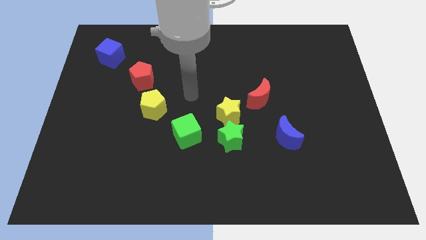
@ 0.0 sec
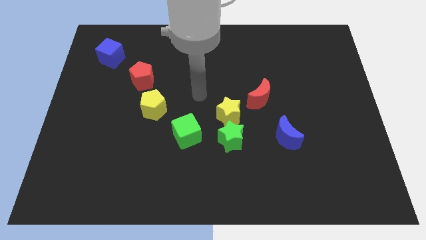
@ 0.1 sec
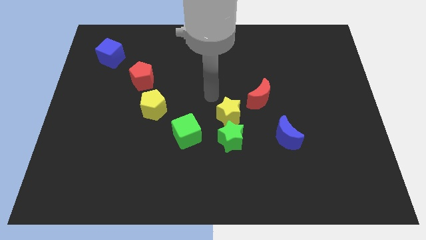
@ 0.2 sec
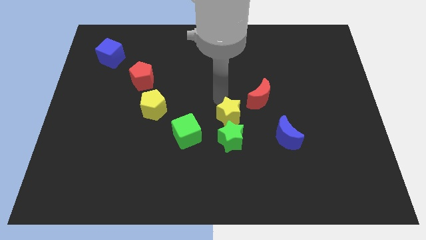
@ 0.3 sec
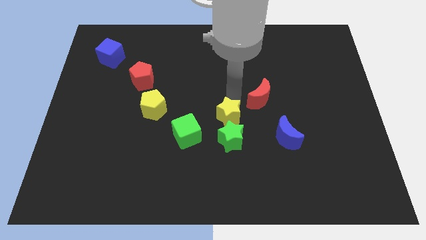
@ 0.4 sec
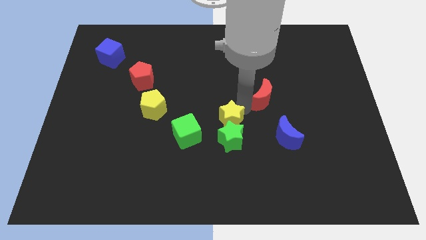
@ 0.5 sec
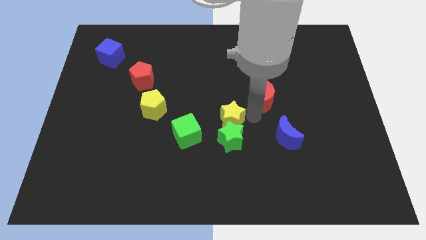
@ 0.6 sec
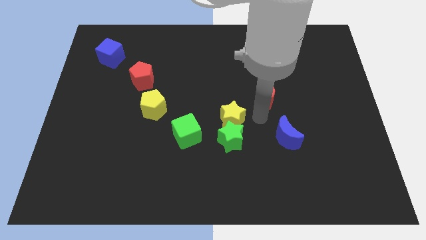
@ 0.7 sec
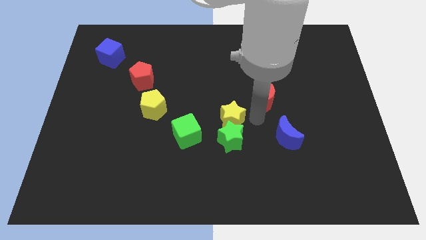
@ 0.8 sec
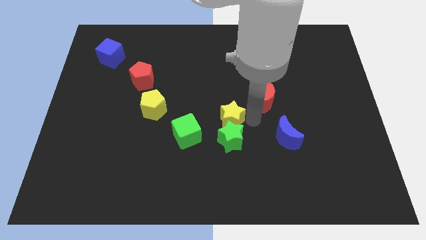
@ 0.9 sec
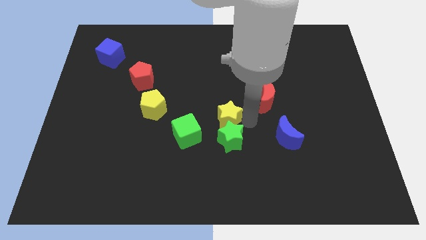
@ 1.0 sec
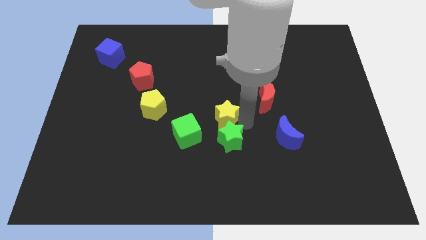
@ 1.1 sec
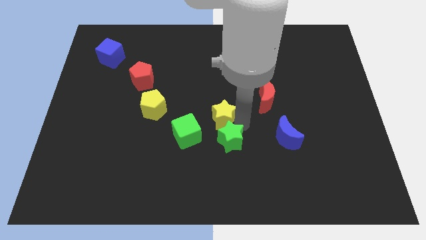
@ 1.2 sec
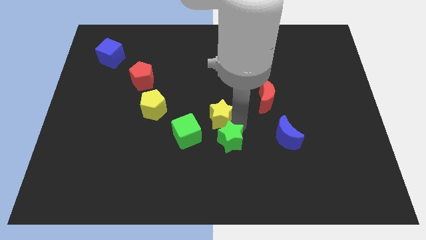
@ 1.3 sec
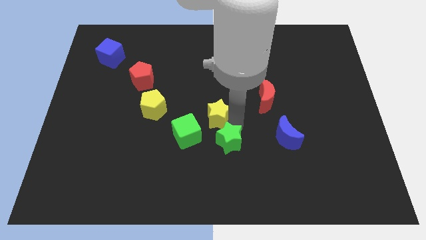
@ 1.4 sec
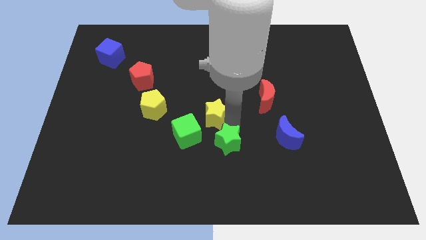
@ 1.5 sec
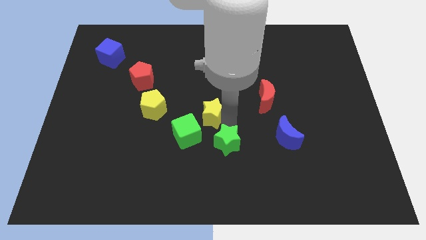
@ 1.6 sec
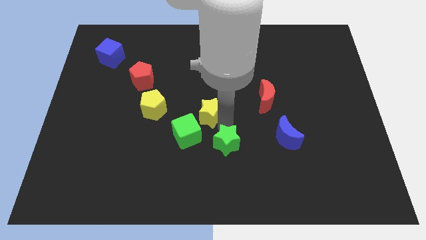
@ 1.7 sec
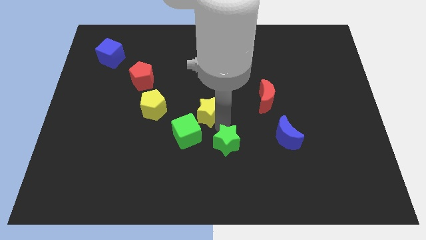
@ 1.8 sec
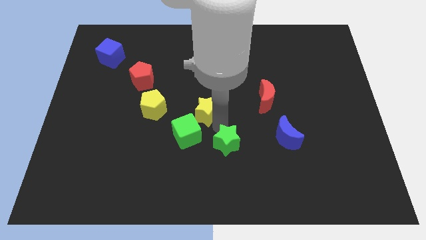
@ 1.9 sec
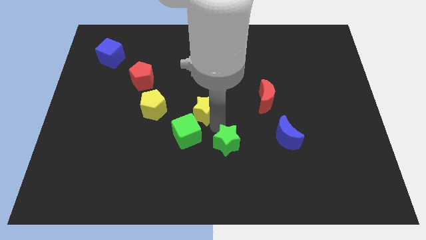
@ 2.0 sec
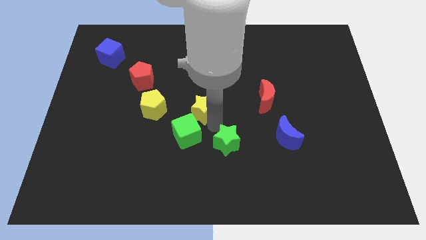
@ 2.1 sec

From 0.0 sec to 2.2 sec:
pull the yellow star apart from the green star and red moon

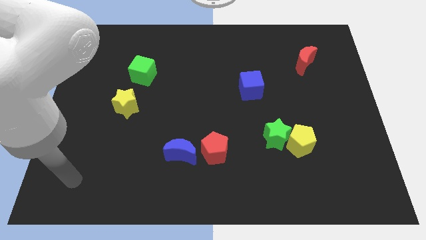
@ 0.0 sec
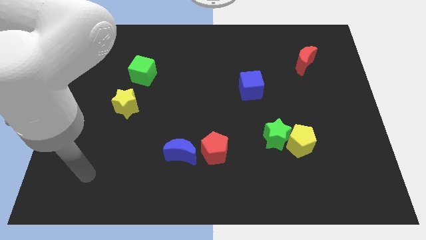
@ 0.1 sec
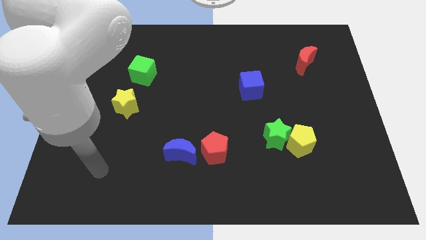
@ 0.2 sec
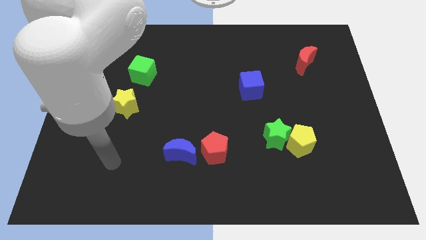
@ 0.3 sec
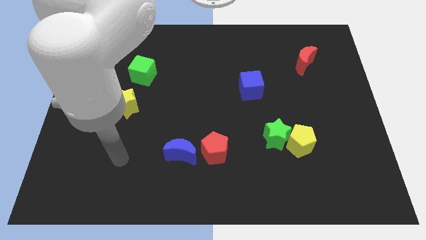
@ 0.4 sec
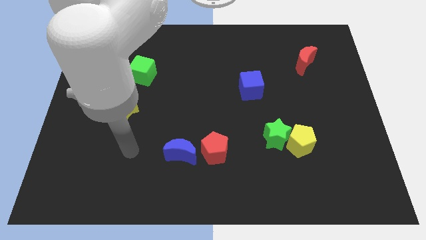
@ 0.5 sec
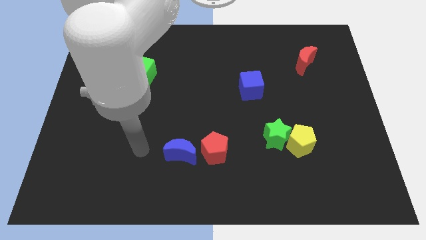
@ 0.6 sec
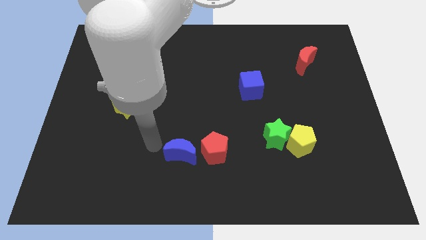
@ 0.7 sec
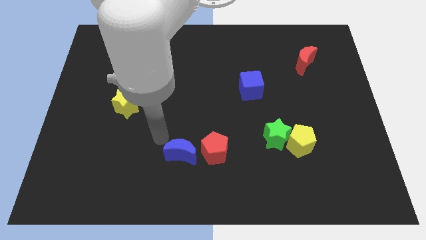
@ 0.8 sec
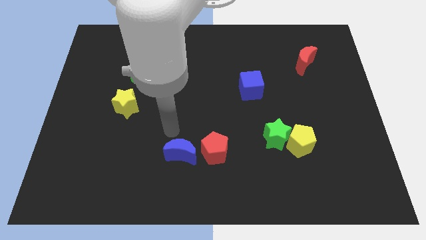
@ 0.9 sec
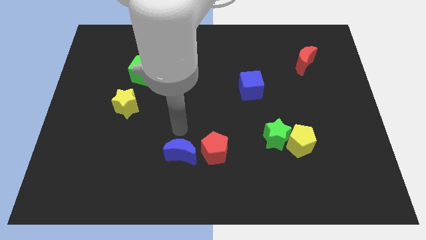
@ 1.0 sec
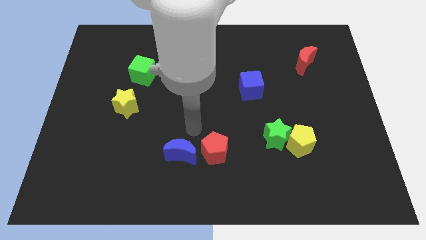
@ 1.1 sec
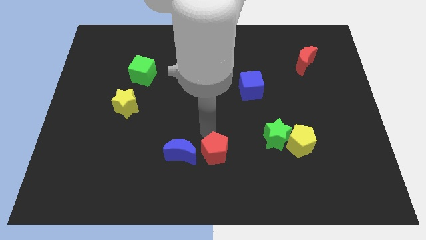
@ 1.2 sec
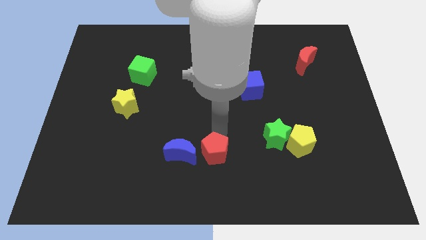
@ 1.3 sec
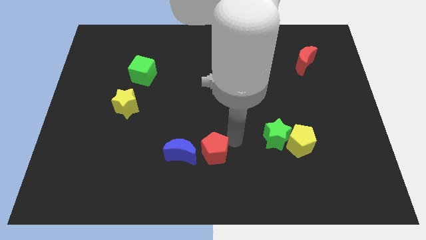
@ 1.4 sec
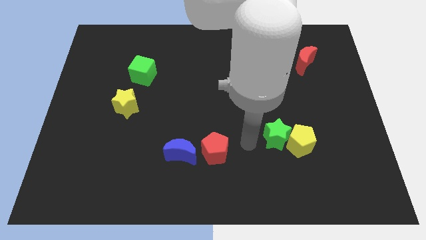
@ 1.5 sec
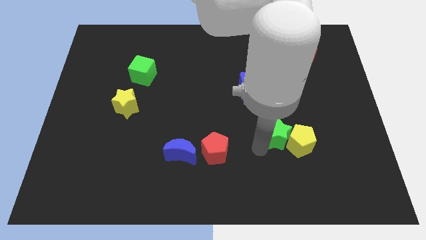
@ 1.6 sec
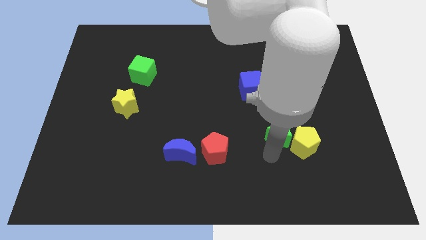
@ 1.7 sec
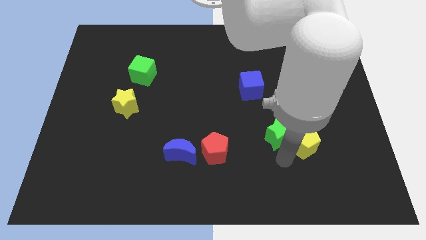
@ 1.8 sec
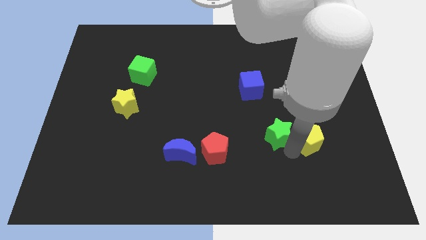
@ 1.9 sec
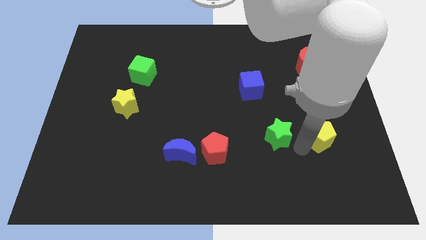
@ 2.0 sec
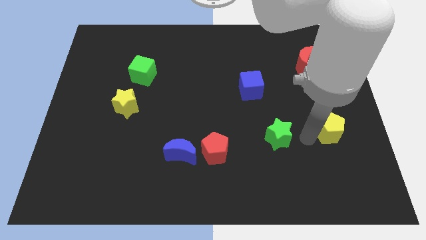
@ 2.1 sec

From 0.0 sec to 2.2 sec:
move the green star away from the yellow pentagon

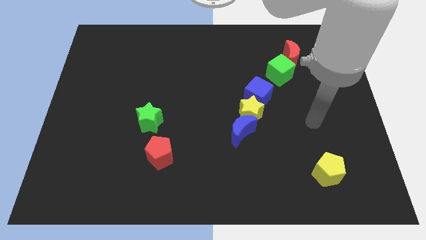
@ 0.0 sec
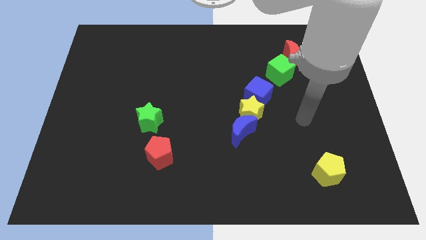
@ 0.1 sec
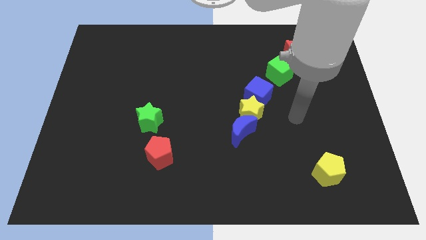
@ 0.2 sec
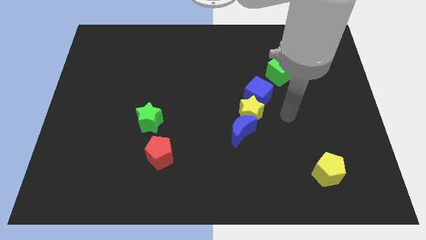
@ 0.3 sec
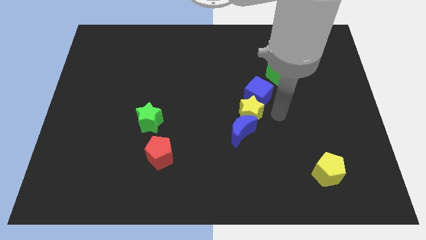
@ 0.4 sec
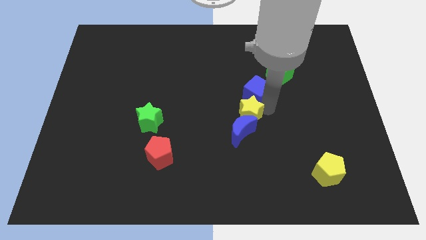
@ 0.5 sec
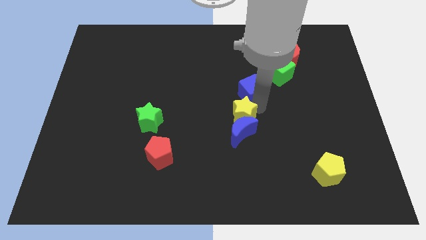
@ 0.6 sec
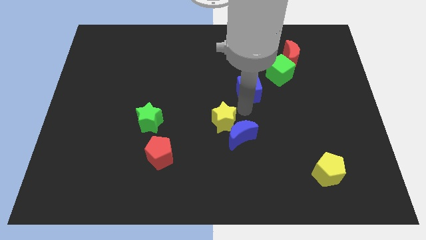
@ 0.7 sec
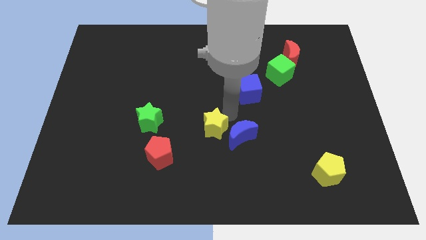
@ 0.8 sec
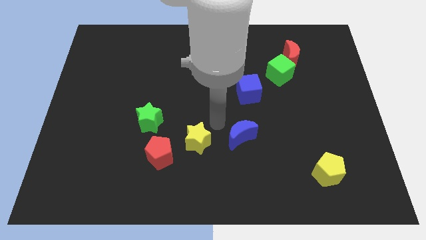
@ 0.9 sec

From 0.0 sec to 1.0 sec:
separate the blue moon from the yellow star

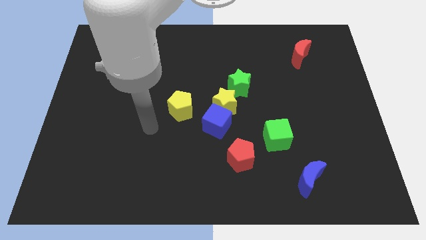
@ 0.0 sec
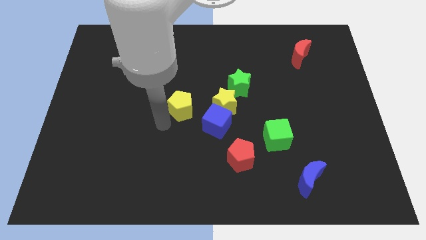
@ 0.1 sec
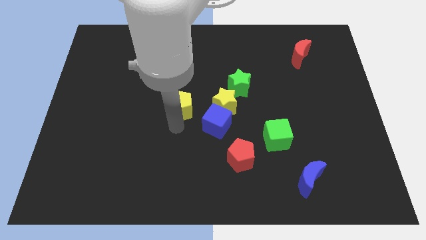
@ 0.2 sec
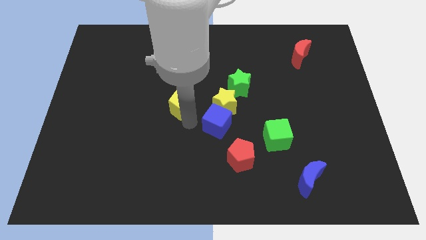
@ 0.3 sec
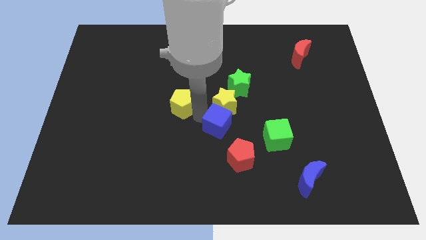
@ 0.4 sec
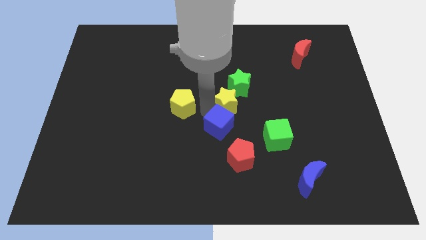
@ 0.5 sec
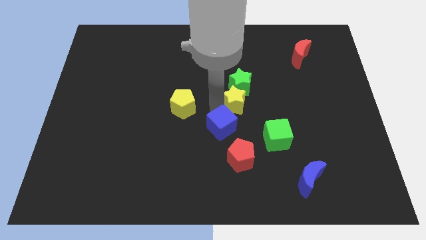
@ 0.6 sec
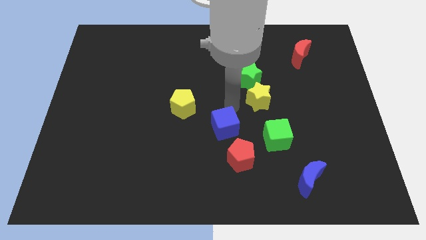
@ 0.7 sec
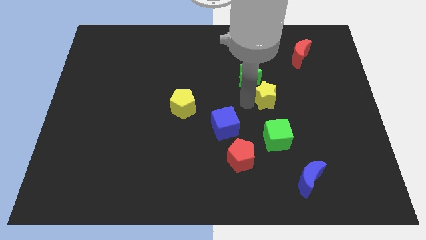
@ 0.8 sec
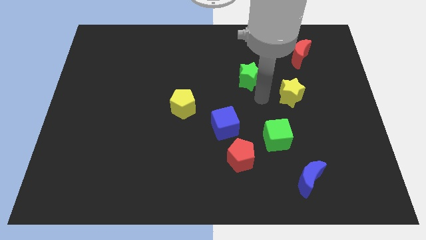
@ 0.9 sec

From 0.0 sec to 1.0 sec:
move the green star away from the yellow star

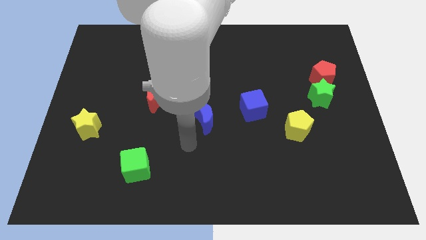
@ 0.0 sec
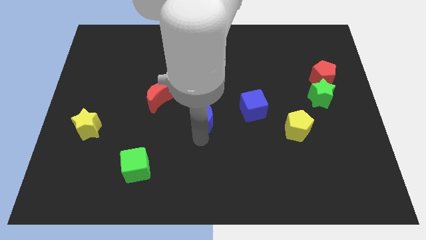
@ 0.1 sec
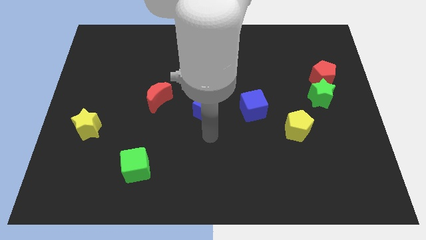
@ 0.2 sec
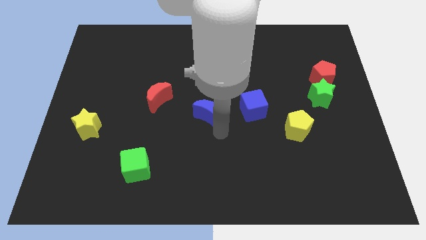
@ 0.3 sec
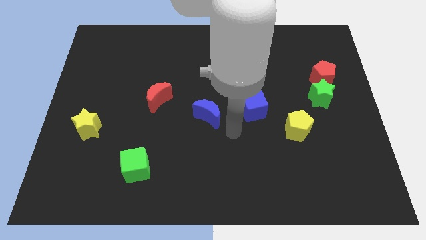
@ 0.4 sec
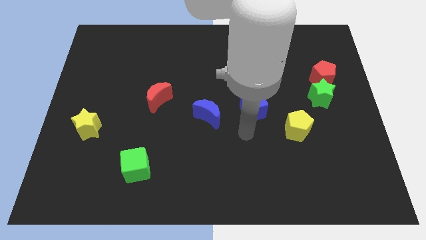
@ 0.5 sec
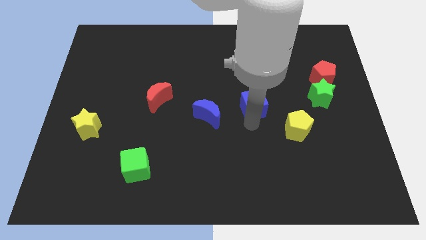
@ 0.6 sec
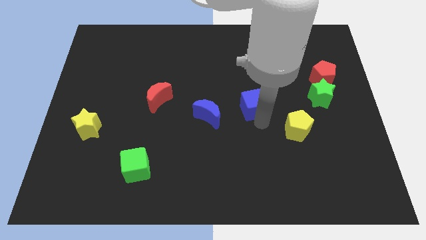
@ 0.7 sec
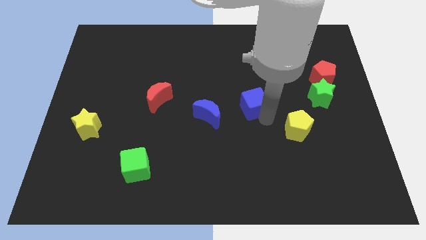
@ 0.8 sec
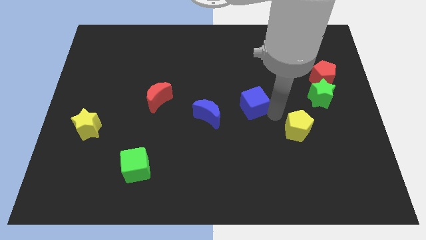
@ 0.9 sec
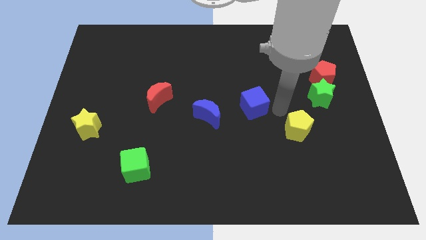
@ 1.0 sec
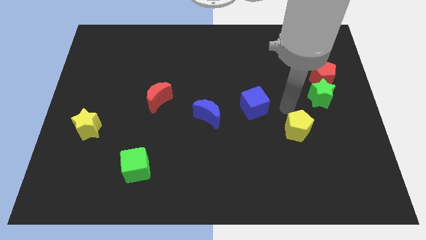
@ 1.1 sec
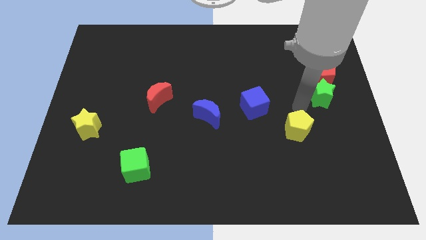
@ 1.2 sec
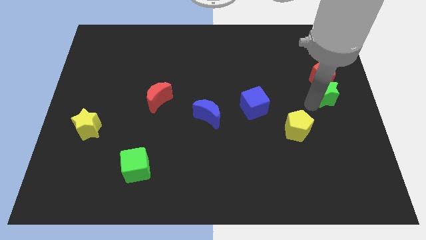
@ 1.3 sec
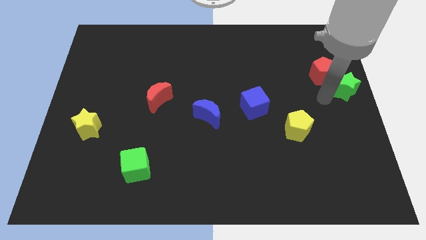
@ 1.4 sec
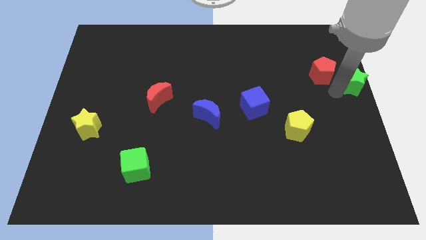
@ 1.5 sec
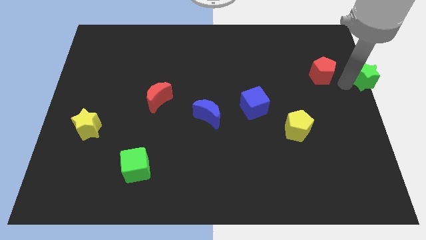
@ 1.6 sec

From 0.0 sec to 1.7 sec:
separate the red pentagon from the green star

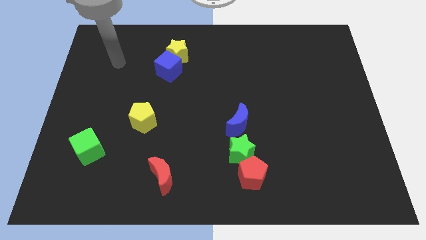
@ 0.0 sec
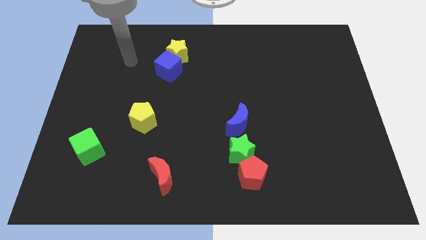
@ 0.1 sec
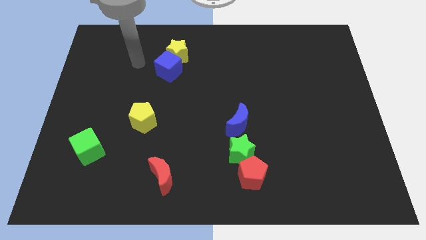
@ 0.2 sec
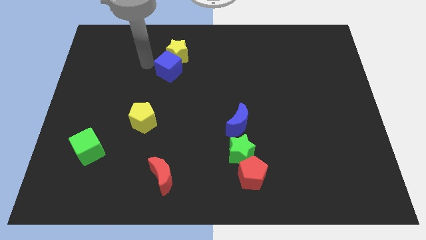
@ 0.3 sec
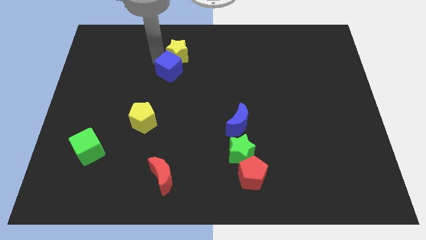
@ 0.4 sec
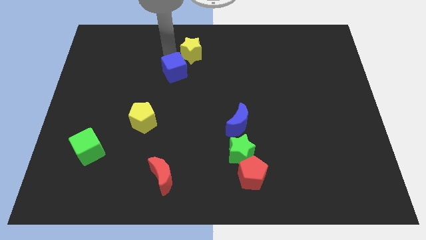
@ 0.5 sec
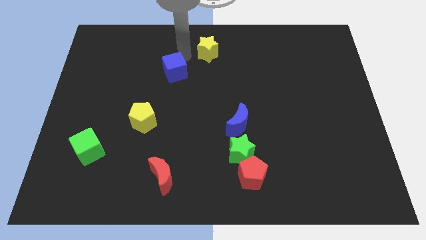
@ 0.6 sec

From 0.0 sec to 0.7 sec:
pull the blue cube apart from the yellow star

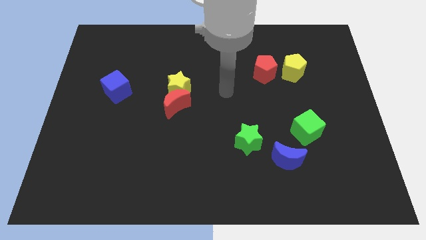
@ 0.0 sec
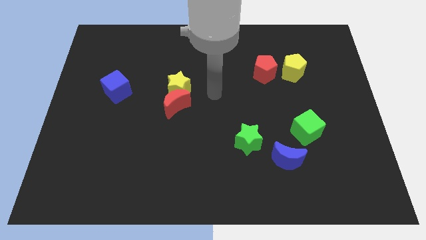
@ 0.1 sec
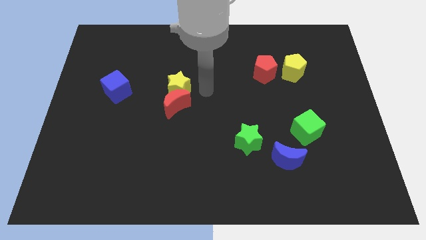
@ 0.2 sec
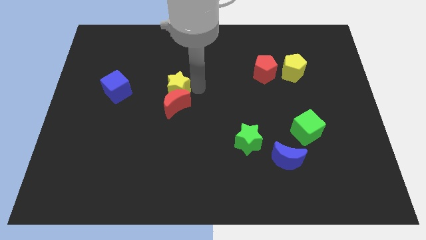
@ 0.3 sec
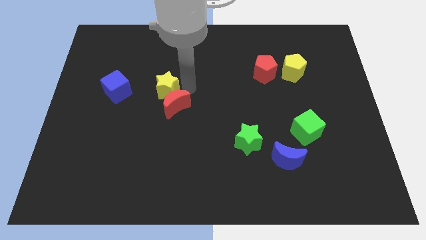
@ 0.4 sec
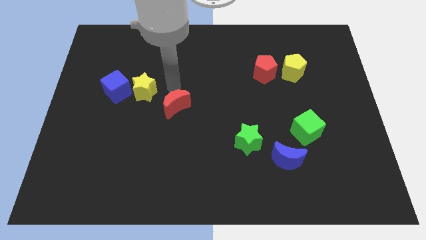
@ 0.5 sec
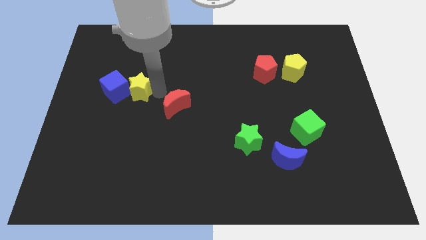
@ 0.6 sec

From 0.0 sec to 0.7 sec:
separate the red moon from the yellow star
